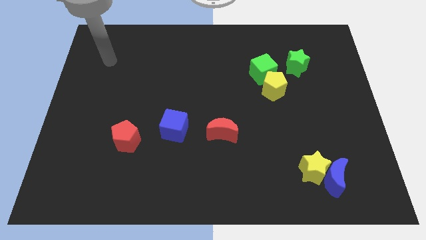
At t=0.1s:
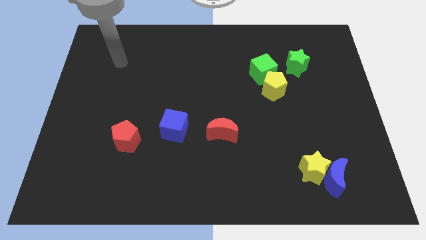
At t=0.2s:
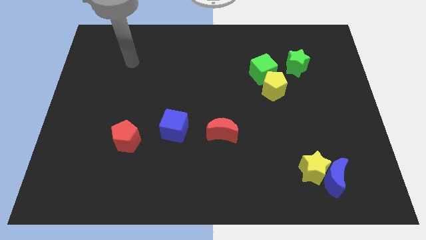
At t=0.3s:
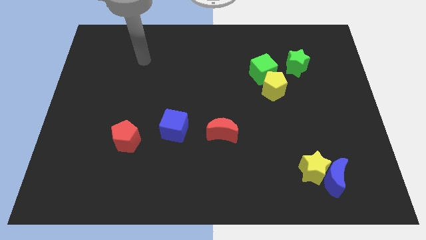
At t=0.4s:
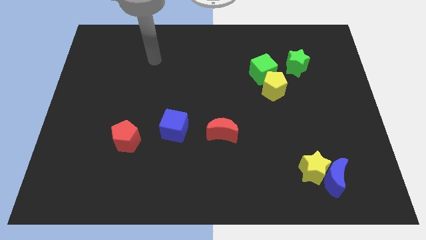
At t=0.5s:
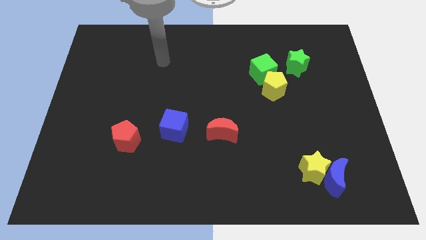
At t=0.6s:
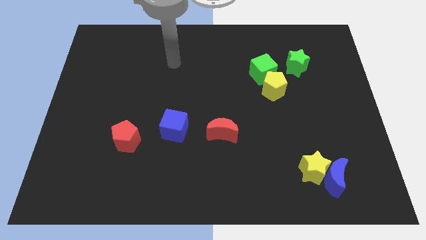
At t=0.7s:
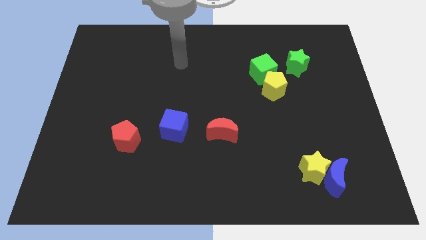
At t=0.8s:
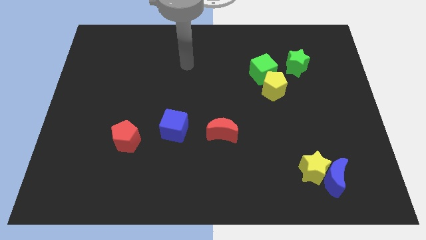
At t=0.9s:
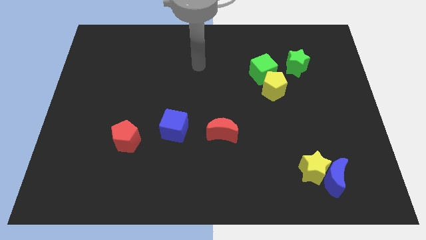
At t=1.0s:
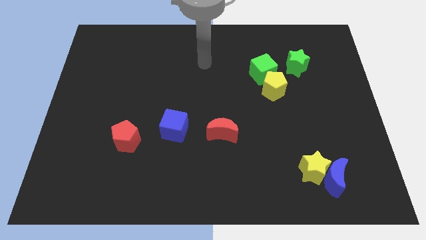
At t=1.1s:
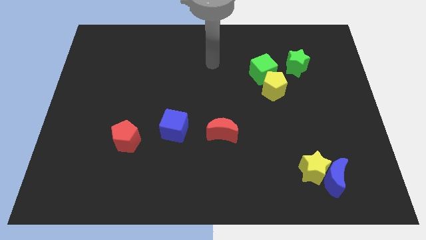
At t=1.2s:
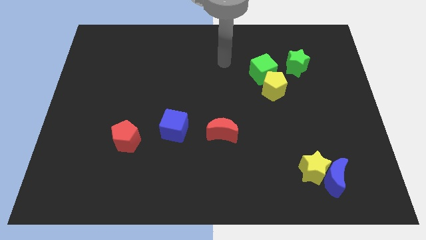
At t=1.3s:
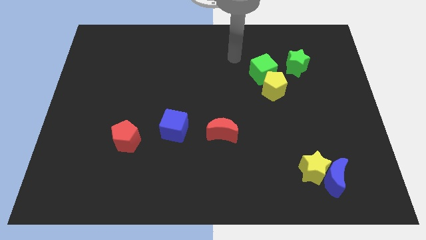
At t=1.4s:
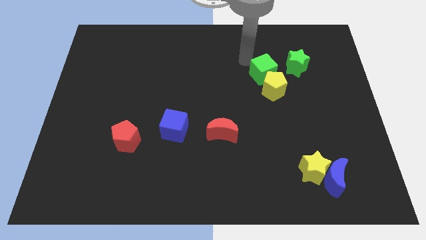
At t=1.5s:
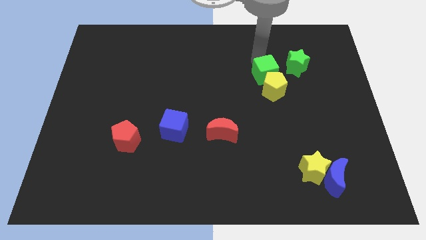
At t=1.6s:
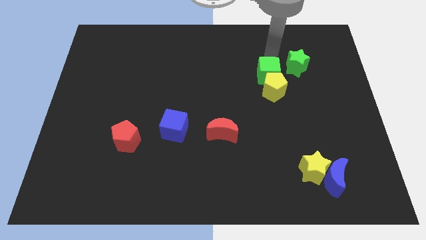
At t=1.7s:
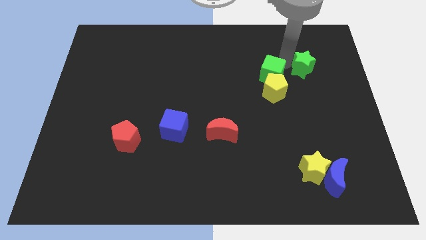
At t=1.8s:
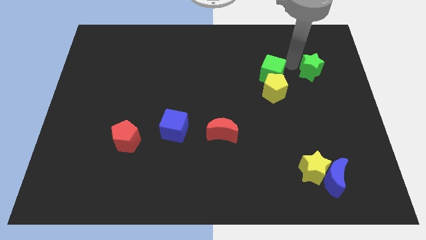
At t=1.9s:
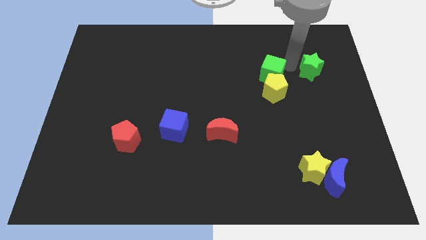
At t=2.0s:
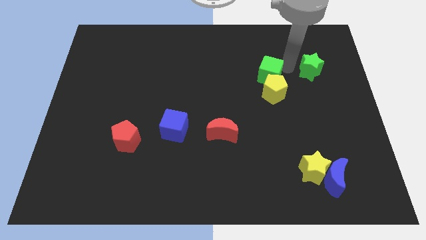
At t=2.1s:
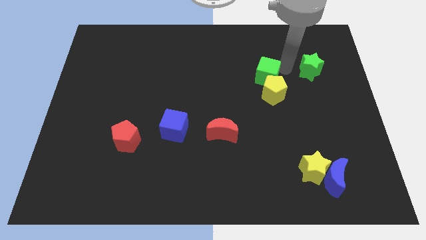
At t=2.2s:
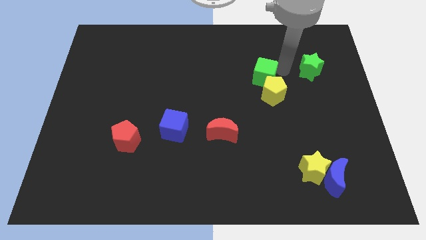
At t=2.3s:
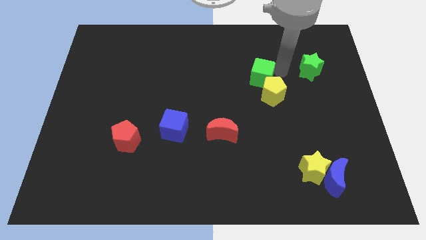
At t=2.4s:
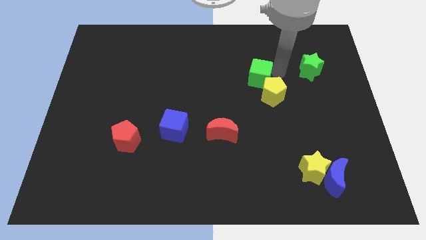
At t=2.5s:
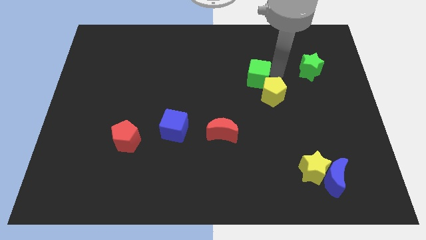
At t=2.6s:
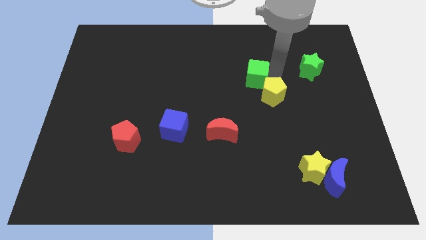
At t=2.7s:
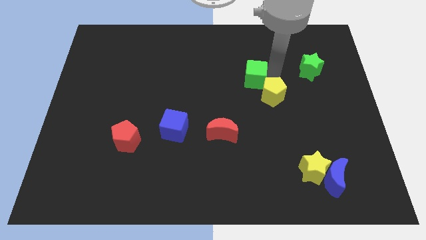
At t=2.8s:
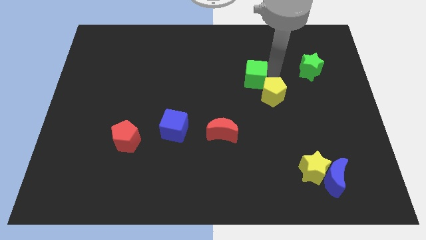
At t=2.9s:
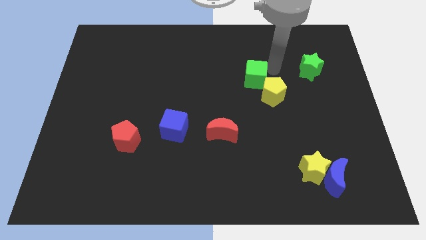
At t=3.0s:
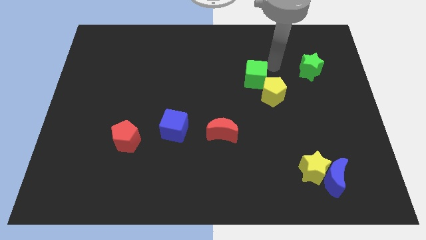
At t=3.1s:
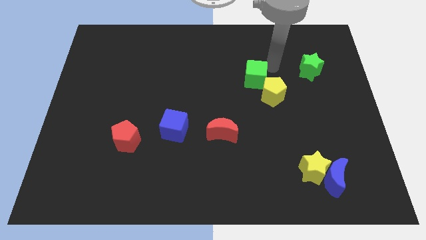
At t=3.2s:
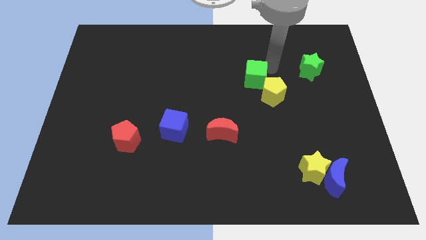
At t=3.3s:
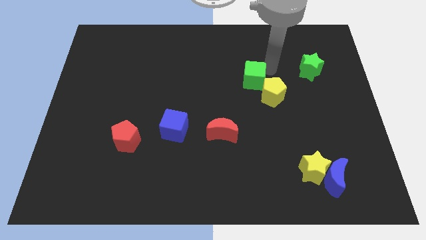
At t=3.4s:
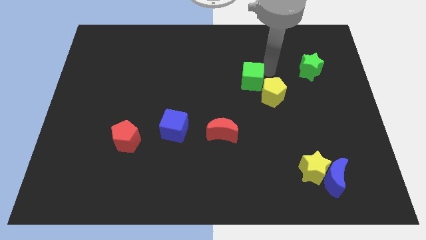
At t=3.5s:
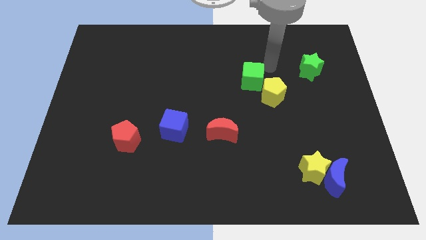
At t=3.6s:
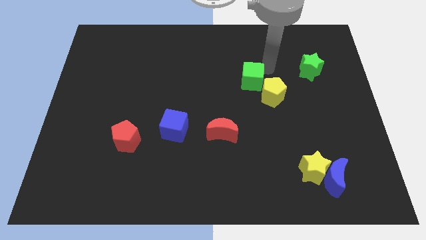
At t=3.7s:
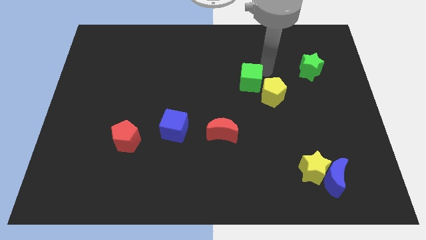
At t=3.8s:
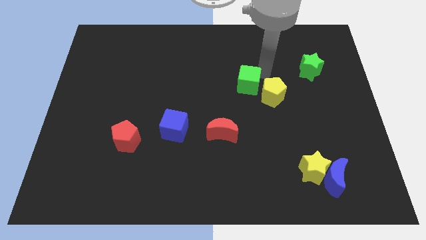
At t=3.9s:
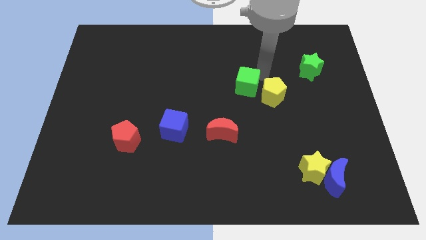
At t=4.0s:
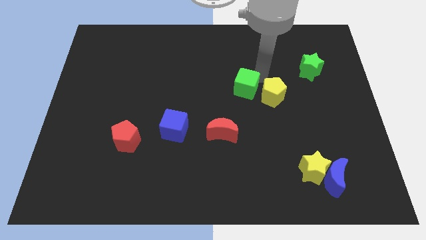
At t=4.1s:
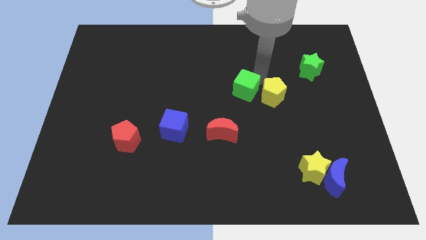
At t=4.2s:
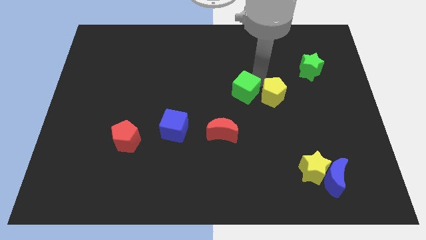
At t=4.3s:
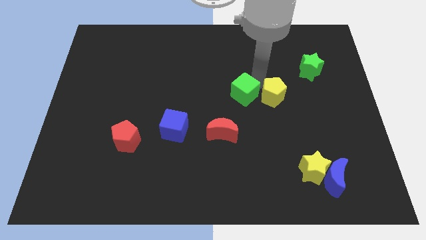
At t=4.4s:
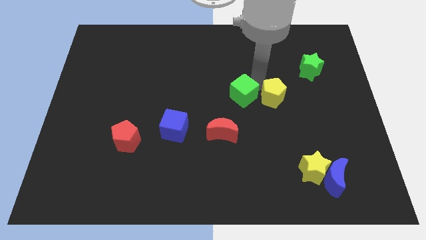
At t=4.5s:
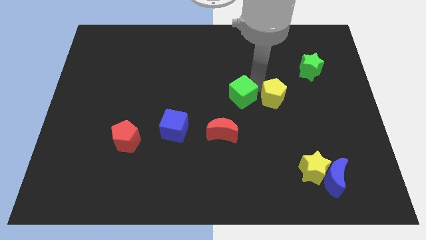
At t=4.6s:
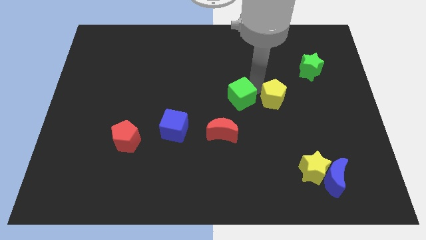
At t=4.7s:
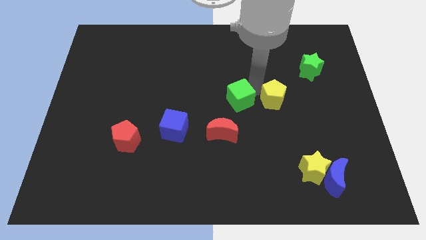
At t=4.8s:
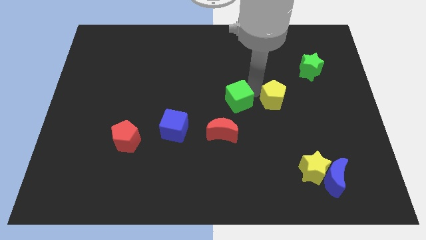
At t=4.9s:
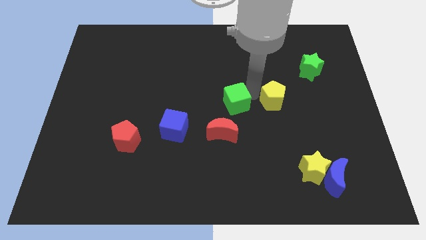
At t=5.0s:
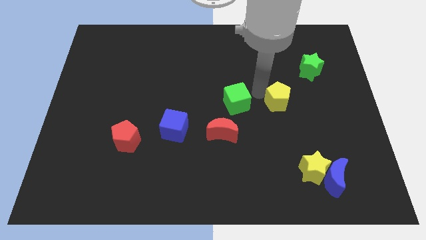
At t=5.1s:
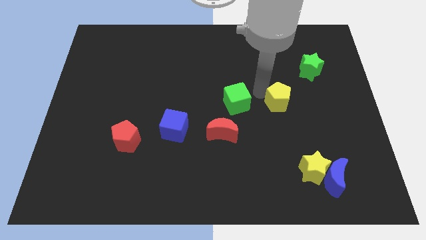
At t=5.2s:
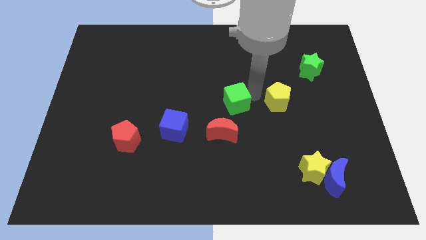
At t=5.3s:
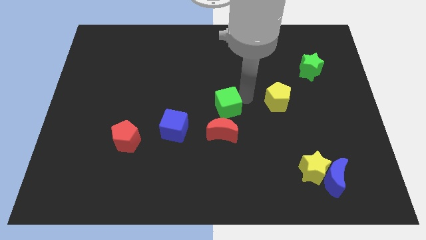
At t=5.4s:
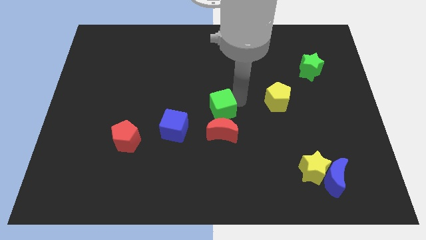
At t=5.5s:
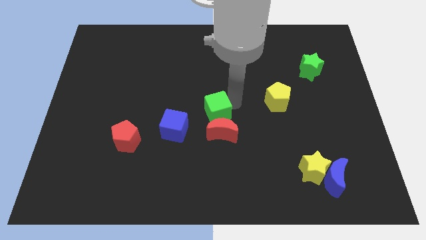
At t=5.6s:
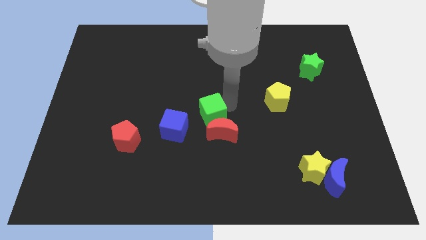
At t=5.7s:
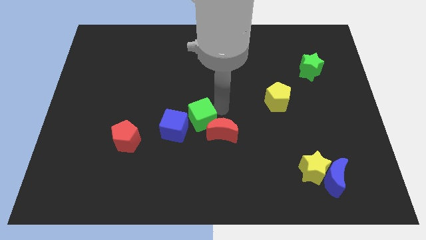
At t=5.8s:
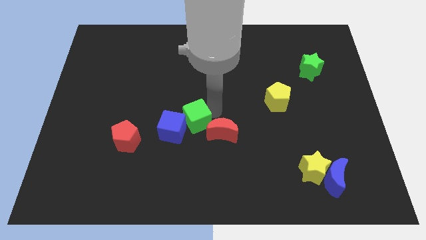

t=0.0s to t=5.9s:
slide the green cube close to the blue cube

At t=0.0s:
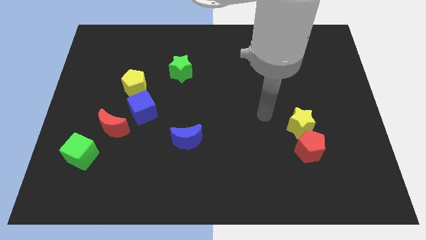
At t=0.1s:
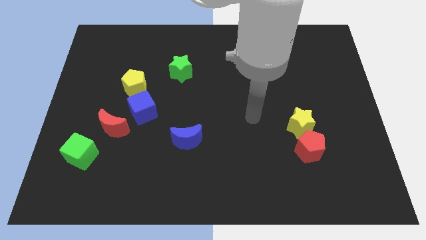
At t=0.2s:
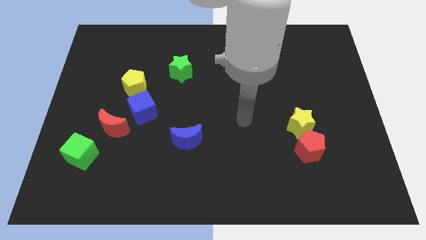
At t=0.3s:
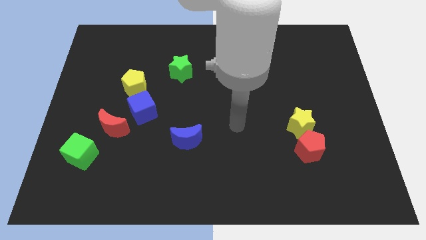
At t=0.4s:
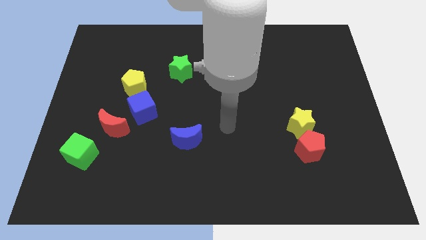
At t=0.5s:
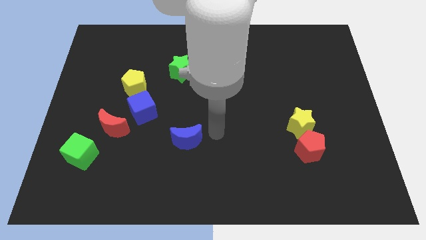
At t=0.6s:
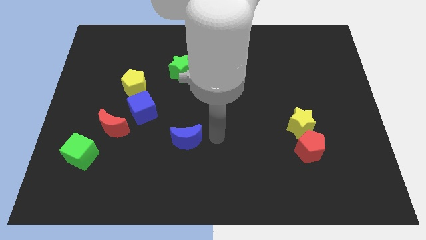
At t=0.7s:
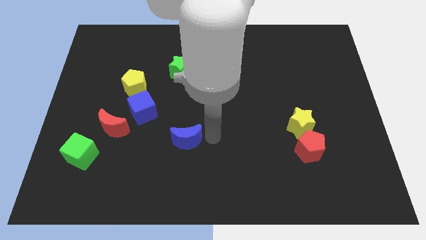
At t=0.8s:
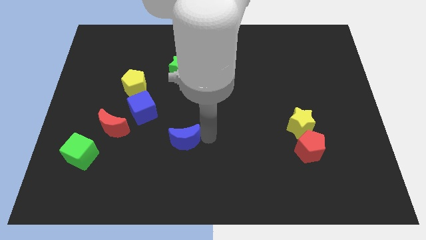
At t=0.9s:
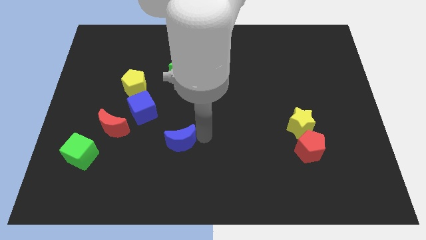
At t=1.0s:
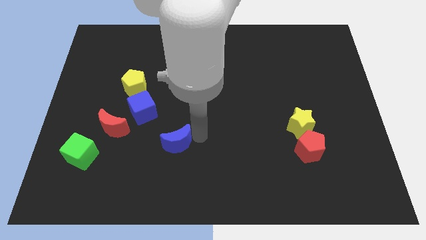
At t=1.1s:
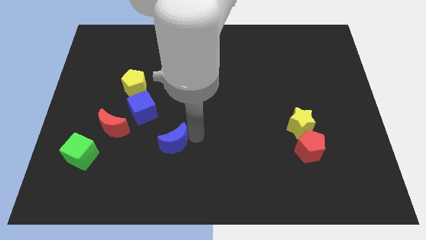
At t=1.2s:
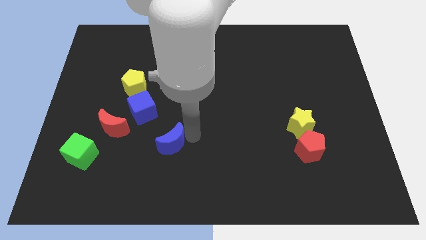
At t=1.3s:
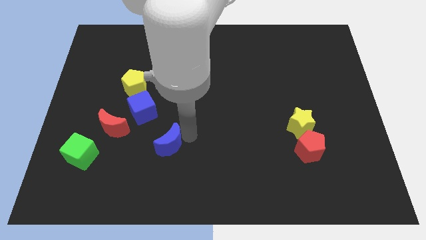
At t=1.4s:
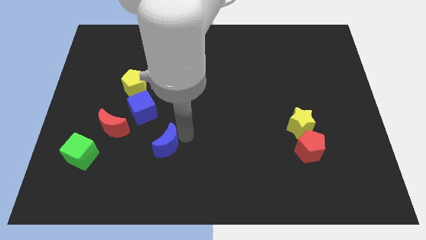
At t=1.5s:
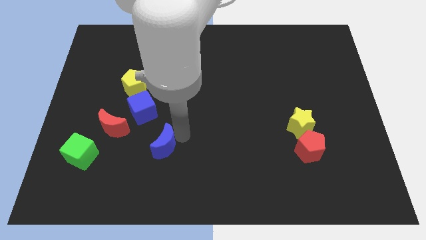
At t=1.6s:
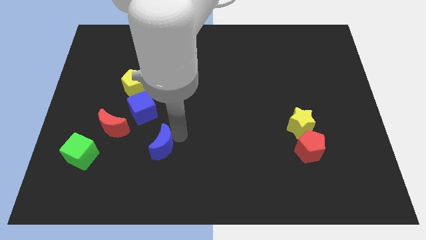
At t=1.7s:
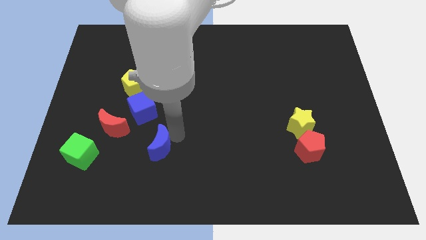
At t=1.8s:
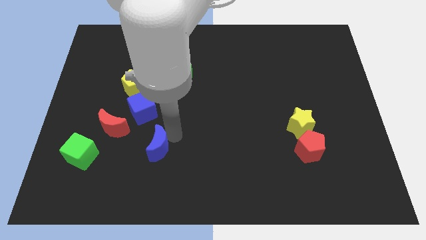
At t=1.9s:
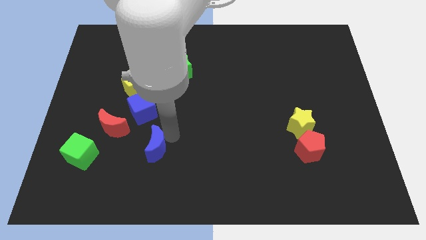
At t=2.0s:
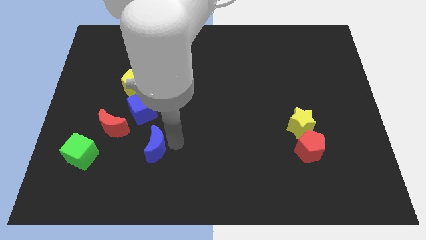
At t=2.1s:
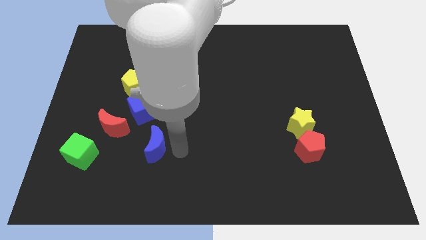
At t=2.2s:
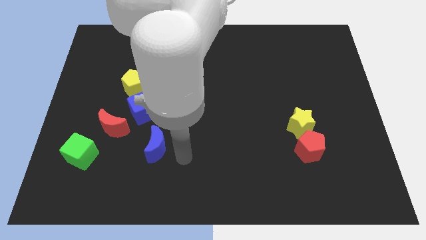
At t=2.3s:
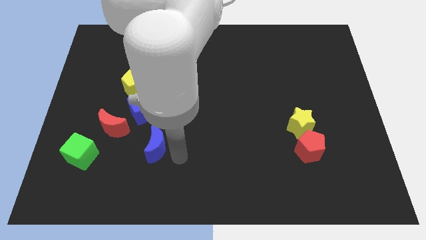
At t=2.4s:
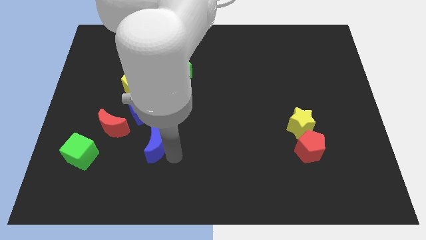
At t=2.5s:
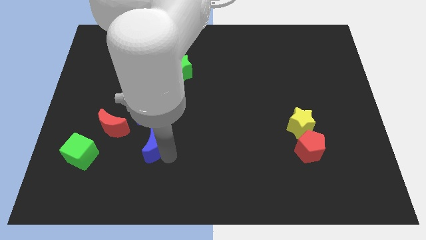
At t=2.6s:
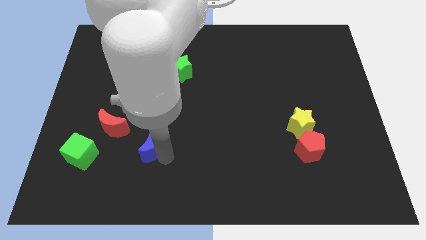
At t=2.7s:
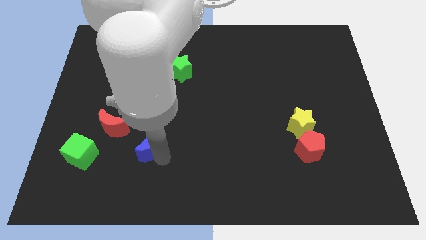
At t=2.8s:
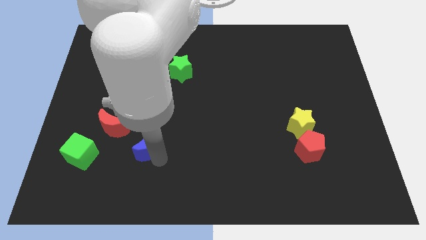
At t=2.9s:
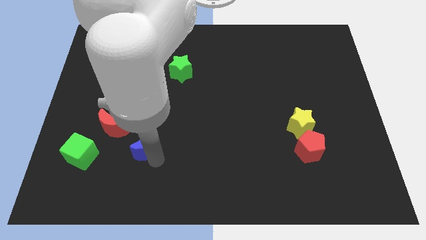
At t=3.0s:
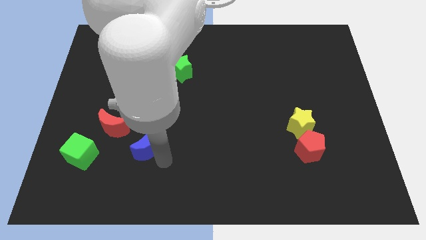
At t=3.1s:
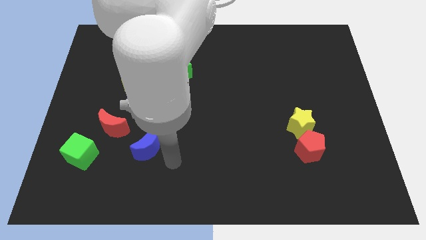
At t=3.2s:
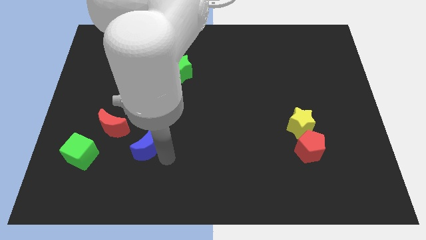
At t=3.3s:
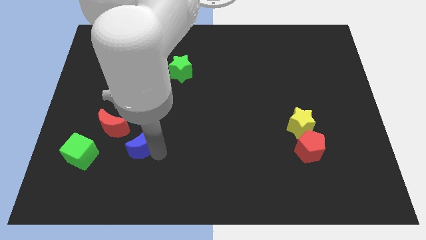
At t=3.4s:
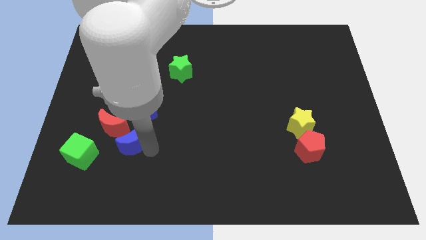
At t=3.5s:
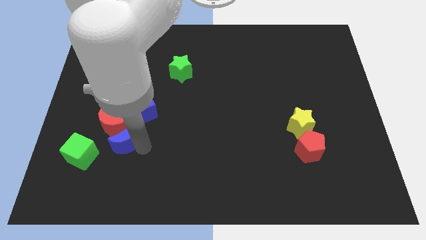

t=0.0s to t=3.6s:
slide the blue moon next to the red moon
